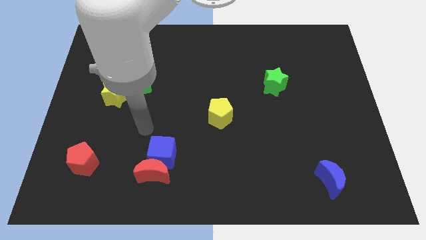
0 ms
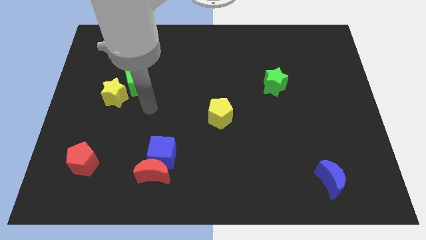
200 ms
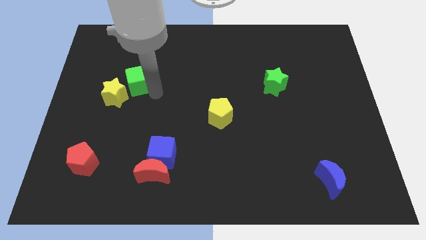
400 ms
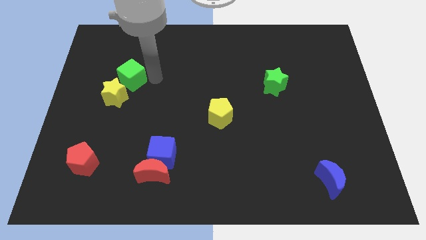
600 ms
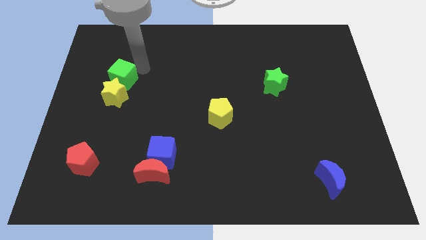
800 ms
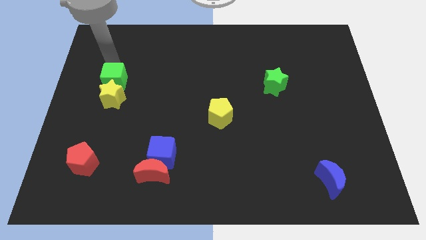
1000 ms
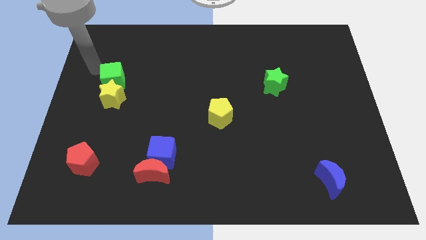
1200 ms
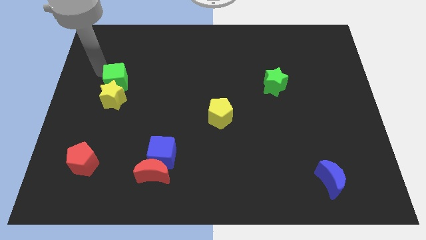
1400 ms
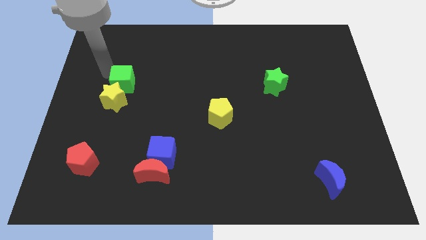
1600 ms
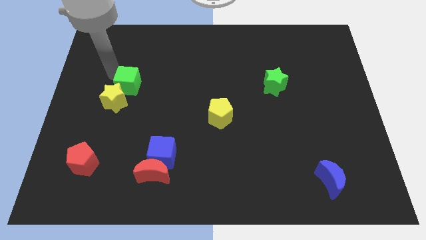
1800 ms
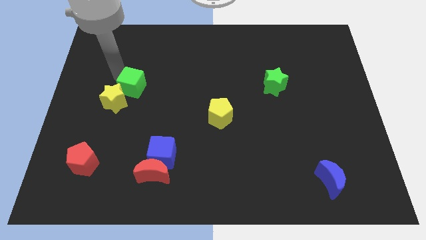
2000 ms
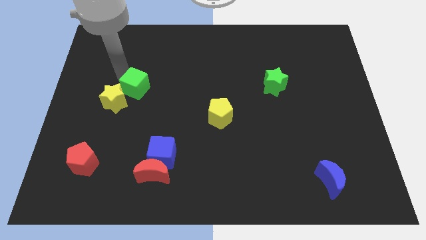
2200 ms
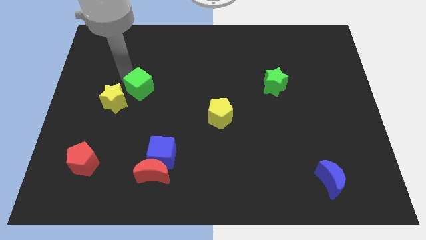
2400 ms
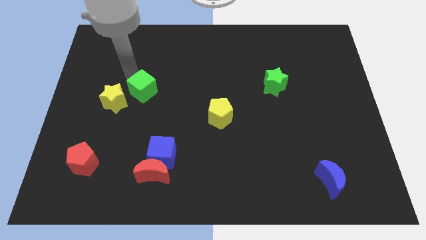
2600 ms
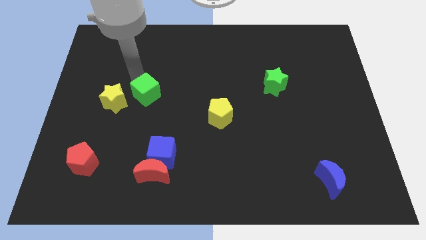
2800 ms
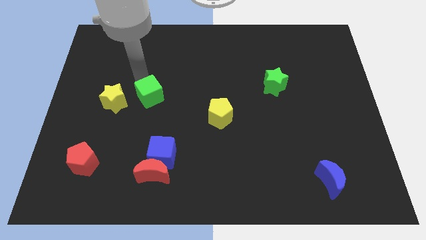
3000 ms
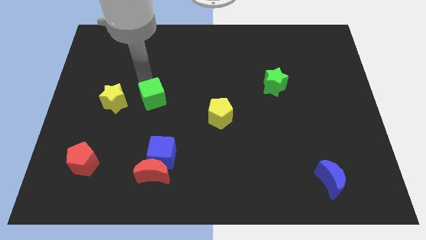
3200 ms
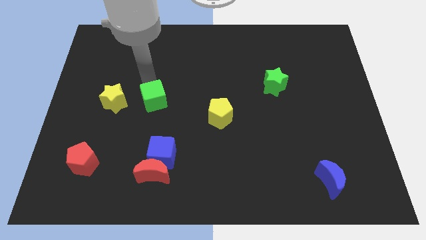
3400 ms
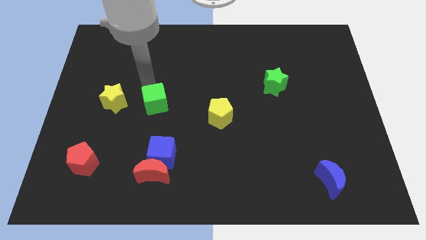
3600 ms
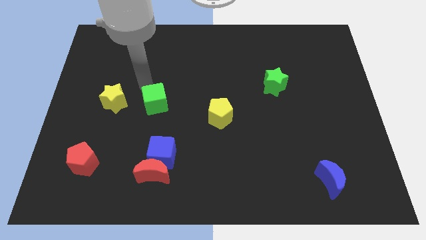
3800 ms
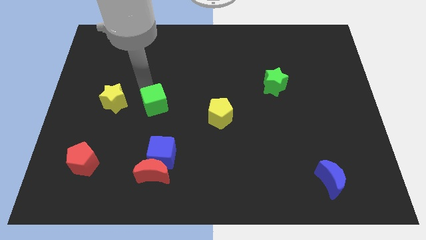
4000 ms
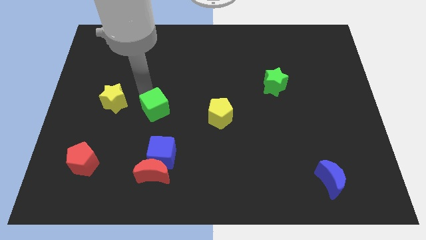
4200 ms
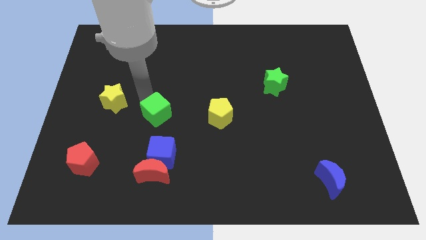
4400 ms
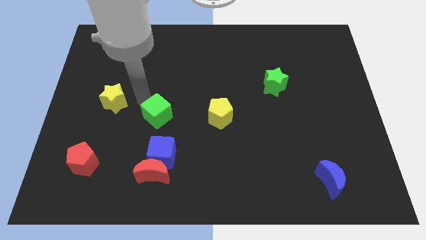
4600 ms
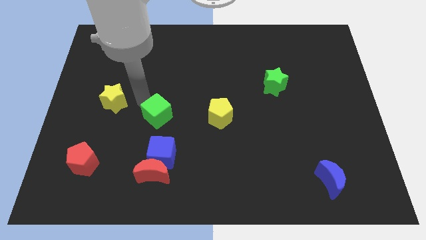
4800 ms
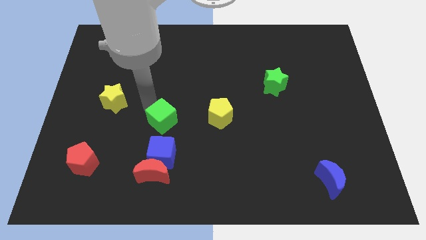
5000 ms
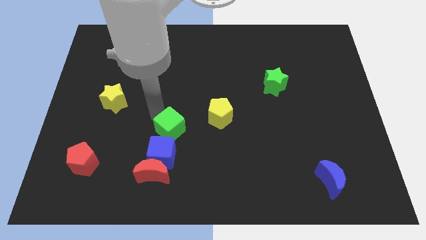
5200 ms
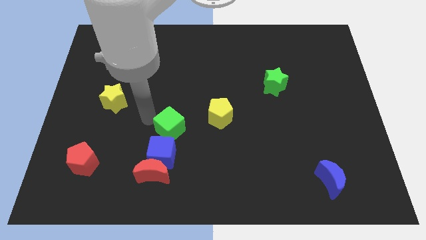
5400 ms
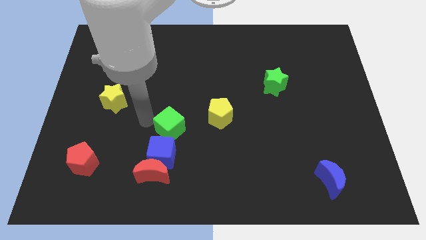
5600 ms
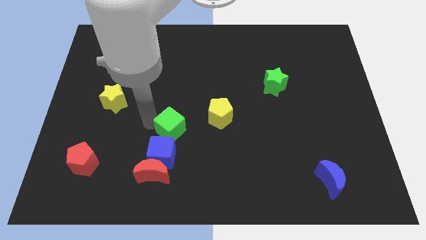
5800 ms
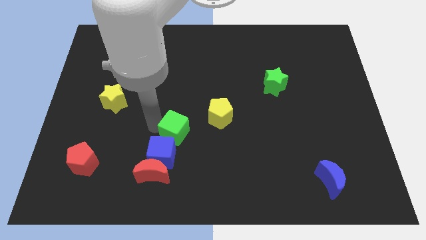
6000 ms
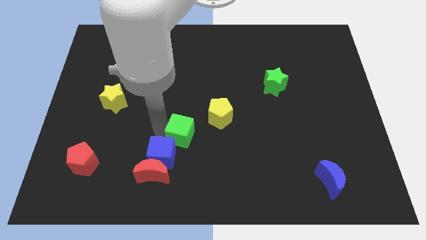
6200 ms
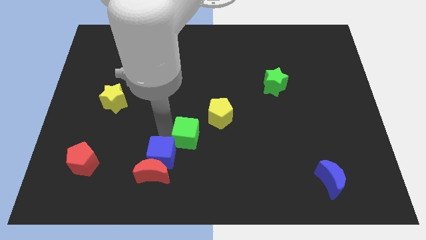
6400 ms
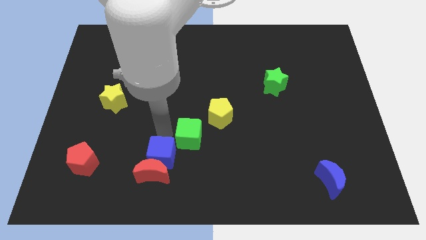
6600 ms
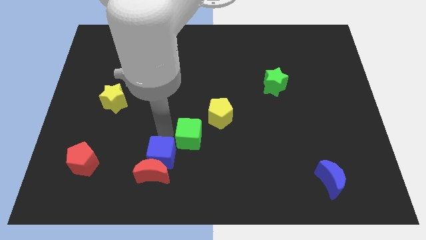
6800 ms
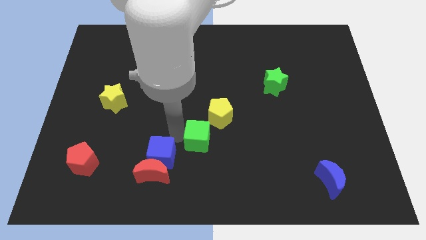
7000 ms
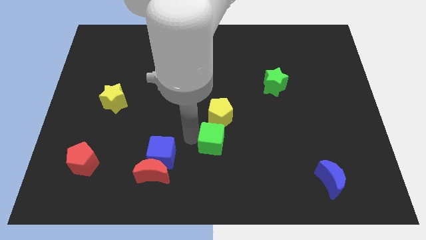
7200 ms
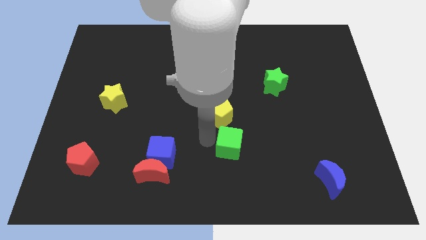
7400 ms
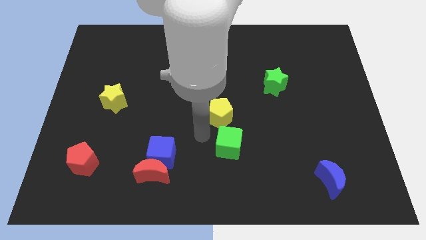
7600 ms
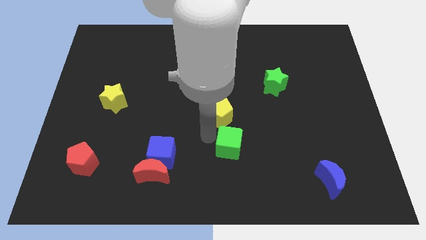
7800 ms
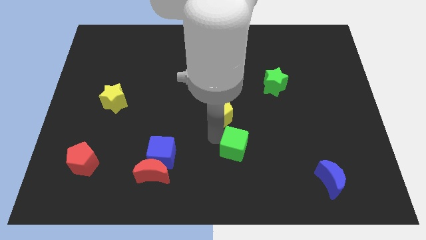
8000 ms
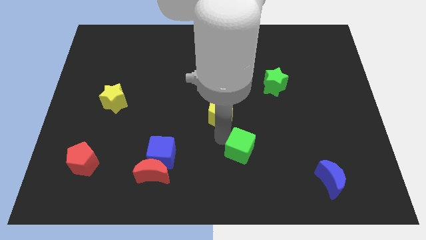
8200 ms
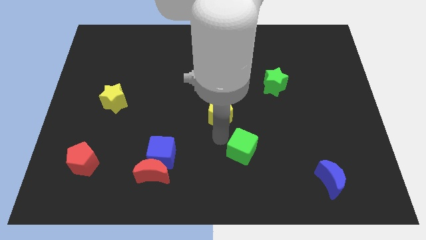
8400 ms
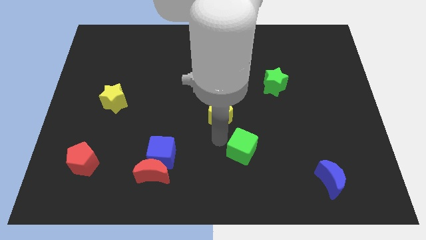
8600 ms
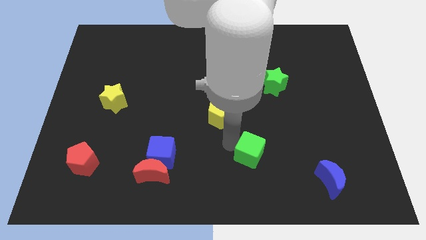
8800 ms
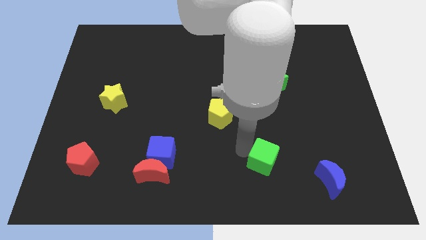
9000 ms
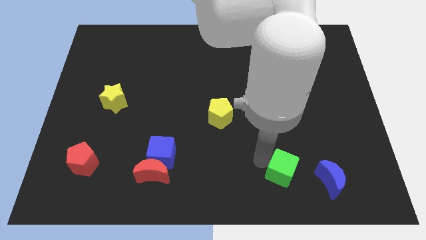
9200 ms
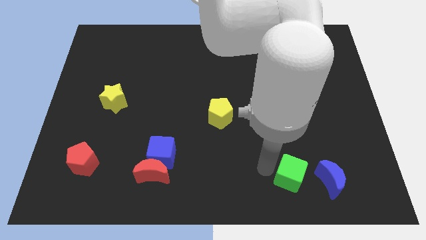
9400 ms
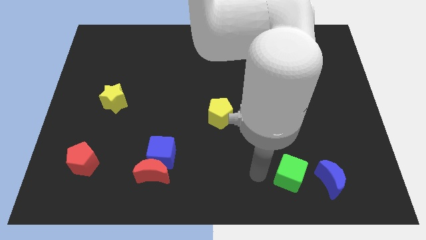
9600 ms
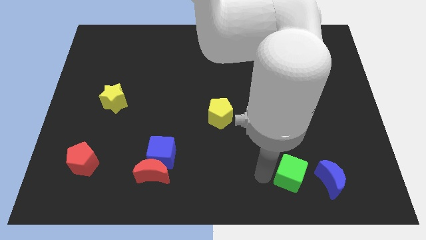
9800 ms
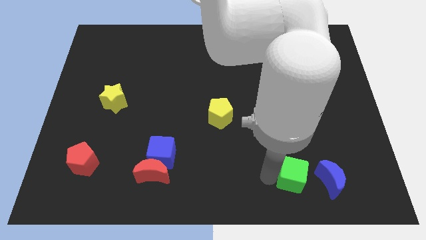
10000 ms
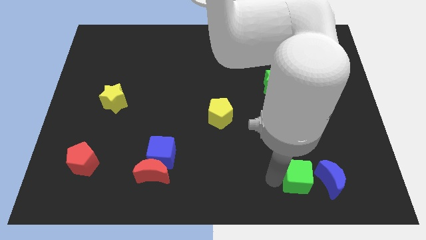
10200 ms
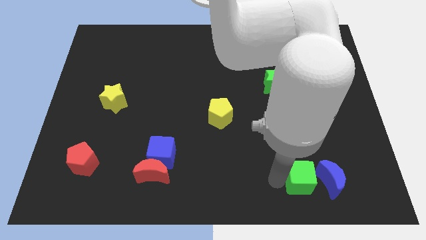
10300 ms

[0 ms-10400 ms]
put the green cube close to the blue moon

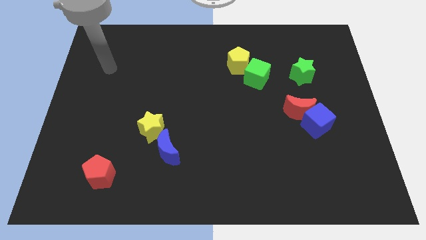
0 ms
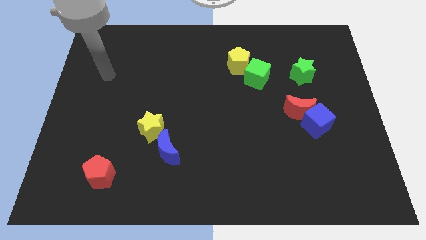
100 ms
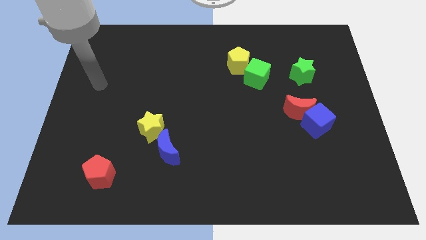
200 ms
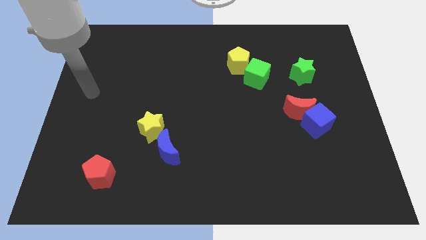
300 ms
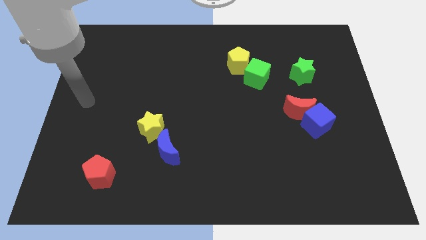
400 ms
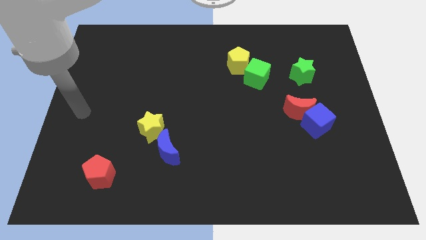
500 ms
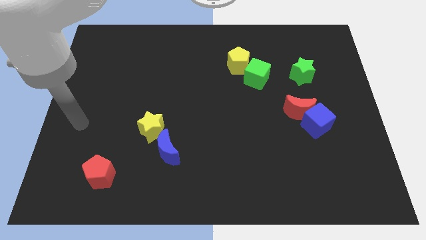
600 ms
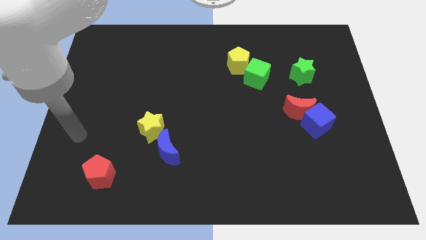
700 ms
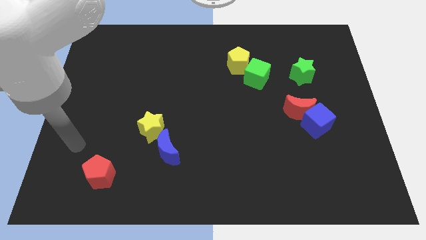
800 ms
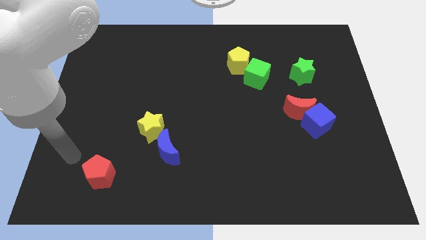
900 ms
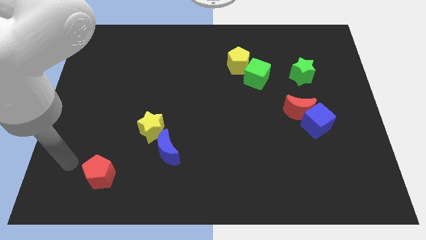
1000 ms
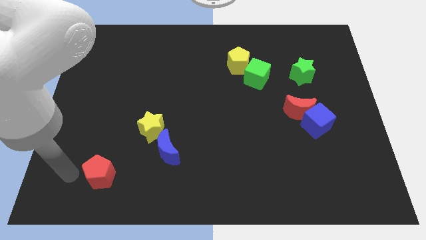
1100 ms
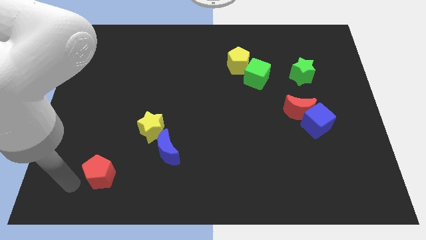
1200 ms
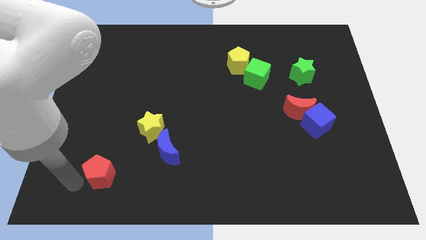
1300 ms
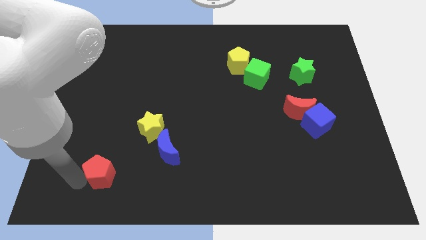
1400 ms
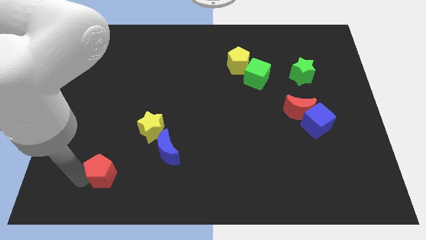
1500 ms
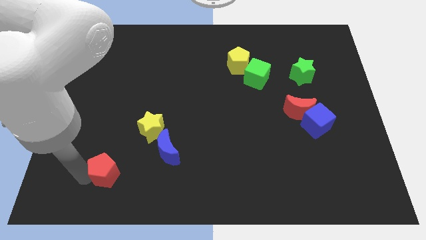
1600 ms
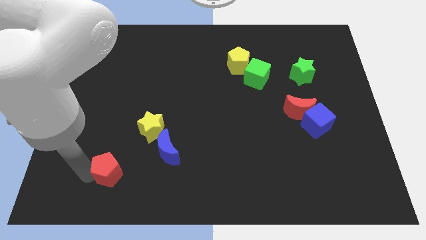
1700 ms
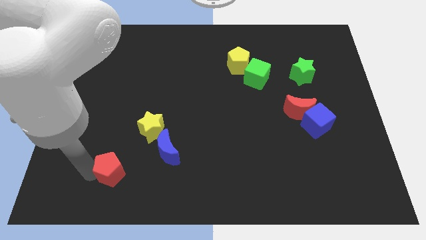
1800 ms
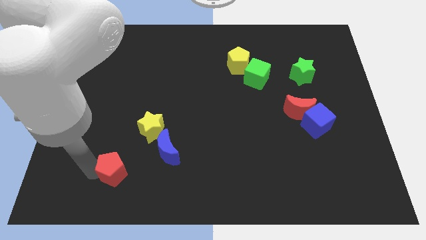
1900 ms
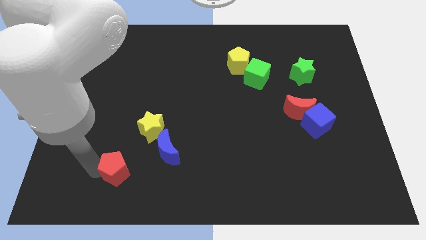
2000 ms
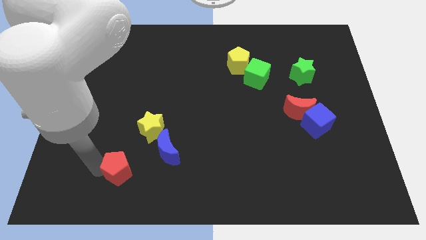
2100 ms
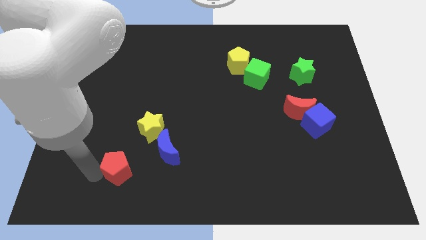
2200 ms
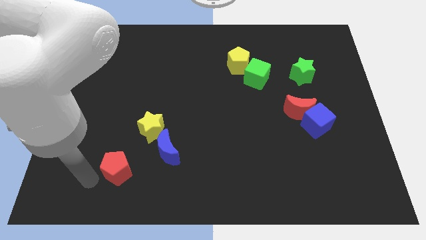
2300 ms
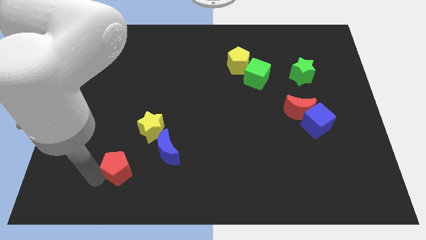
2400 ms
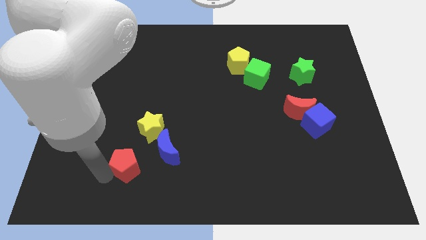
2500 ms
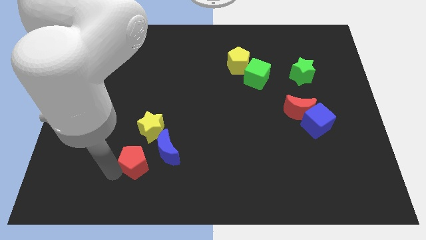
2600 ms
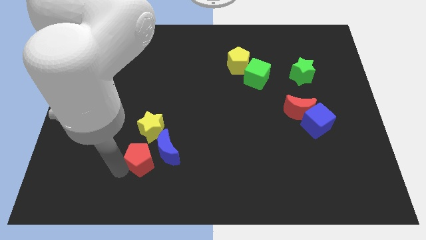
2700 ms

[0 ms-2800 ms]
slide the red pentagon to the blue moon
